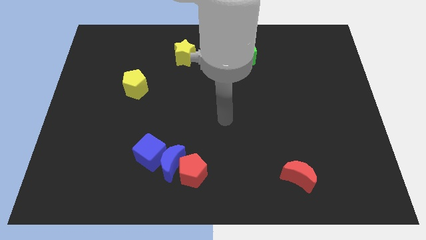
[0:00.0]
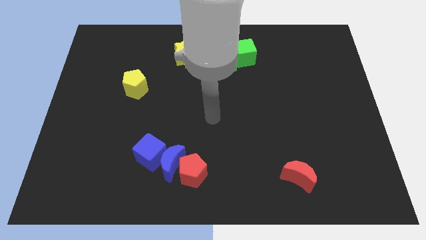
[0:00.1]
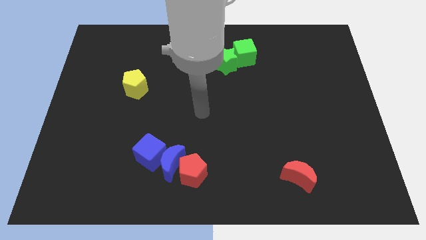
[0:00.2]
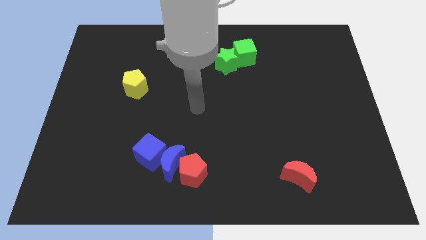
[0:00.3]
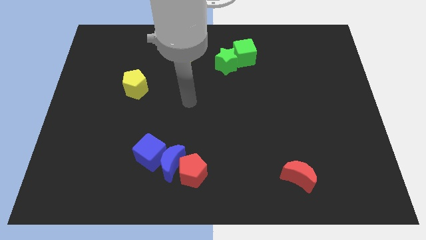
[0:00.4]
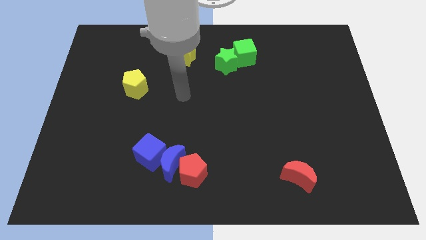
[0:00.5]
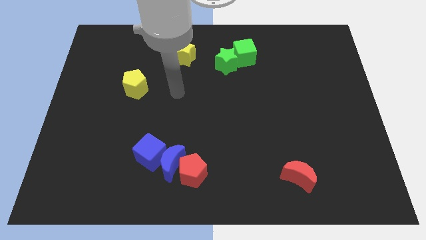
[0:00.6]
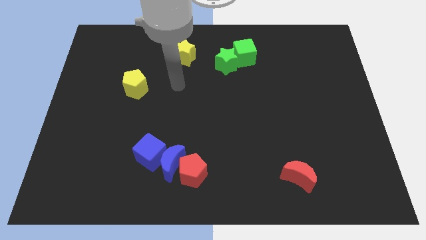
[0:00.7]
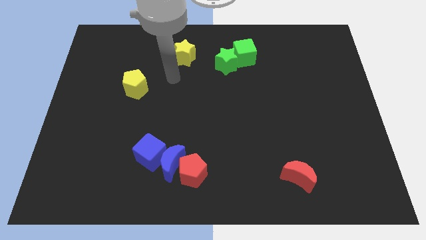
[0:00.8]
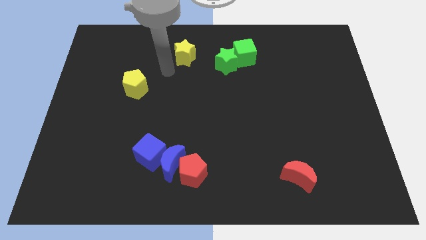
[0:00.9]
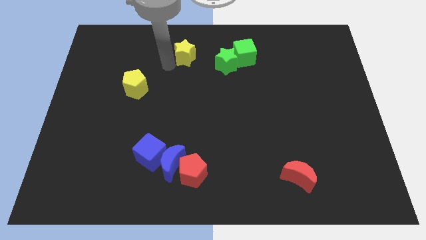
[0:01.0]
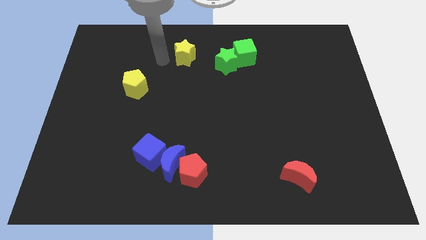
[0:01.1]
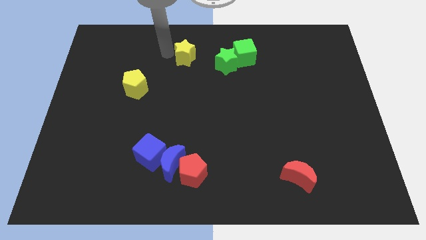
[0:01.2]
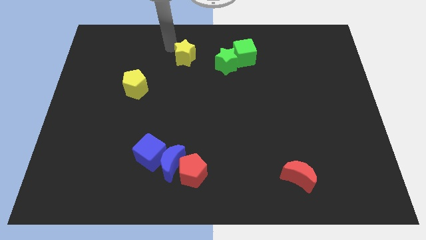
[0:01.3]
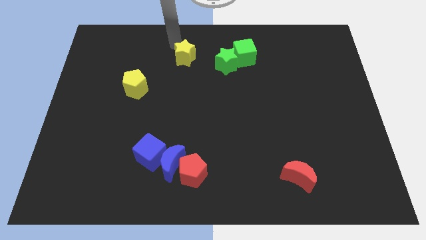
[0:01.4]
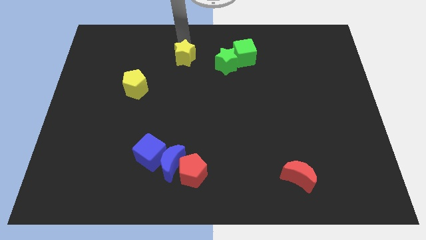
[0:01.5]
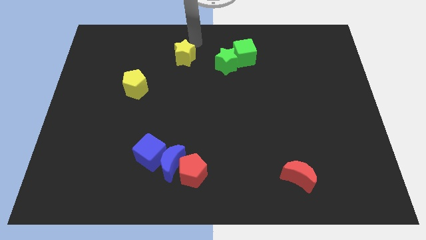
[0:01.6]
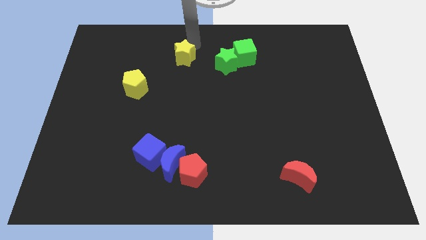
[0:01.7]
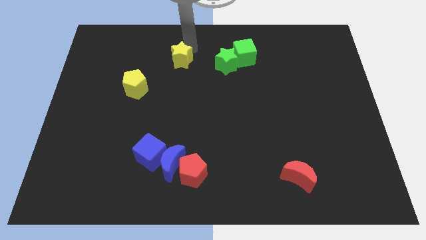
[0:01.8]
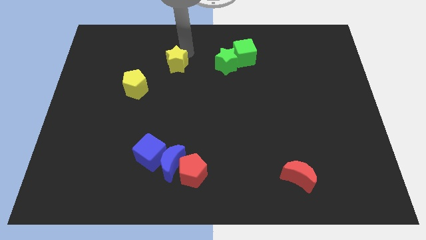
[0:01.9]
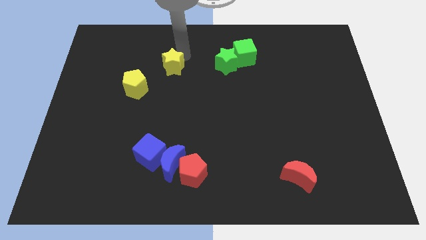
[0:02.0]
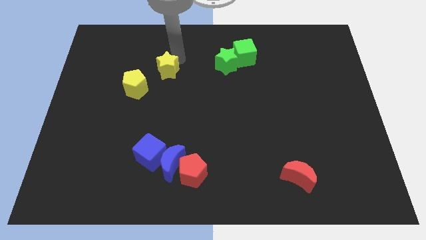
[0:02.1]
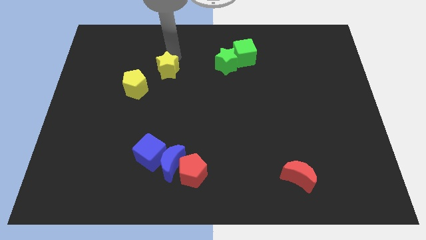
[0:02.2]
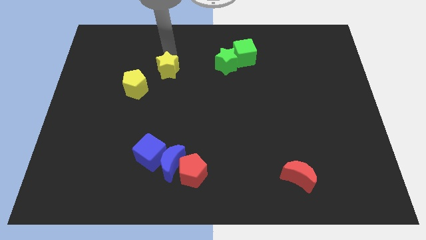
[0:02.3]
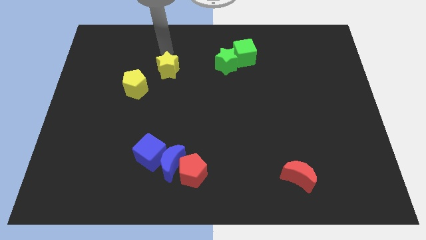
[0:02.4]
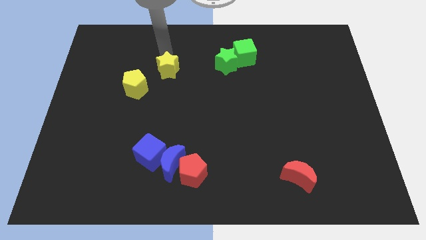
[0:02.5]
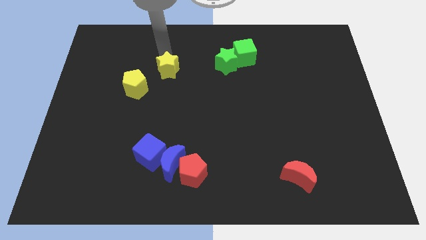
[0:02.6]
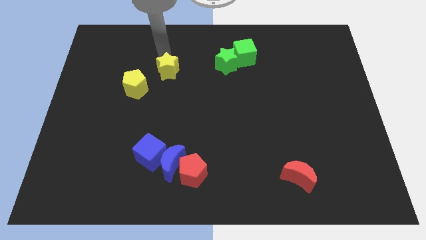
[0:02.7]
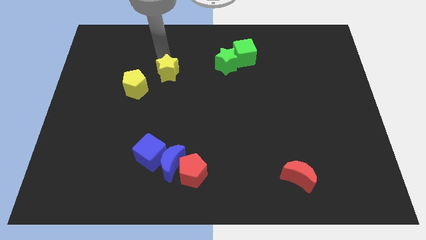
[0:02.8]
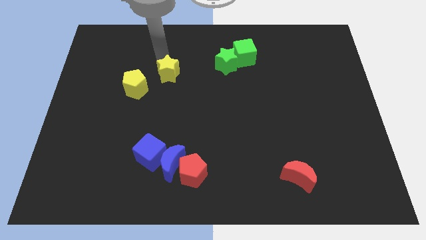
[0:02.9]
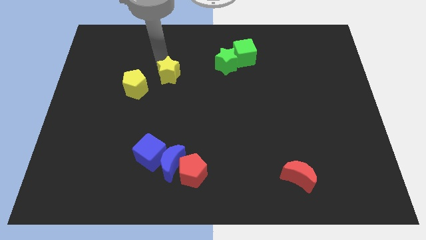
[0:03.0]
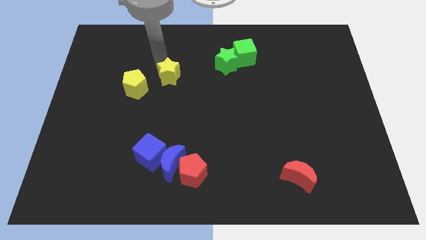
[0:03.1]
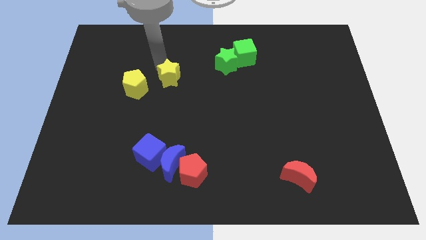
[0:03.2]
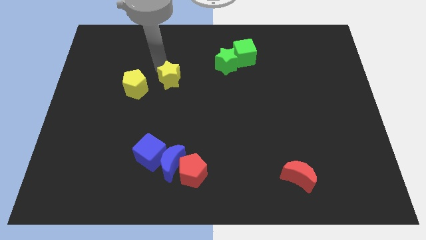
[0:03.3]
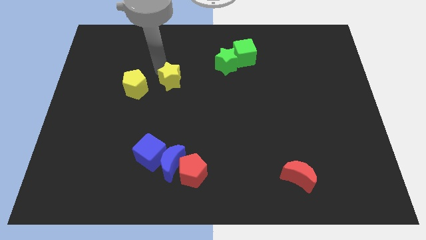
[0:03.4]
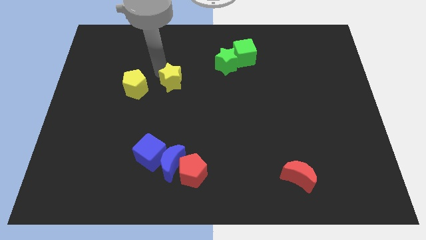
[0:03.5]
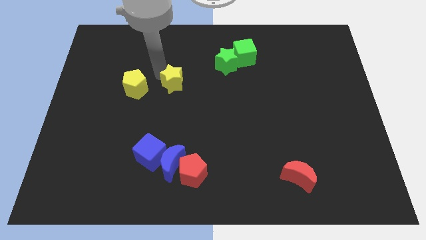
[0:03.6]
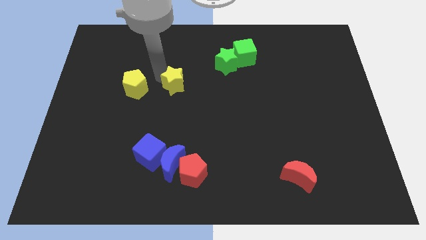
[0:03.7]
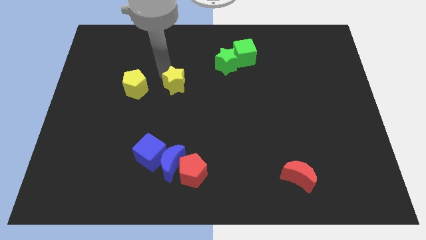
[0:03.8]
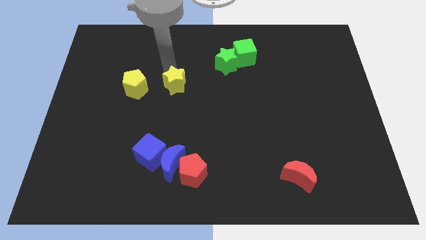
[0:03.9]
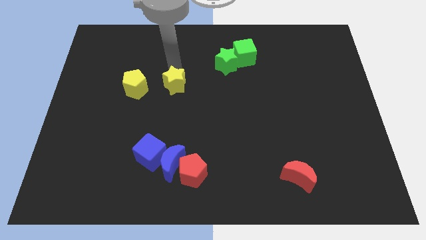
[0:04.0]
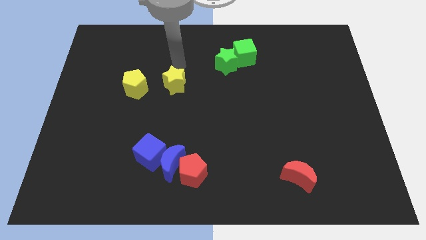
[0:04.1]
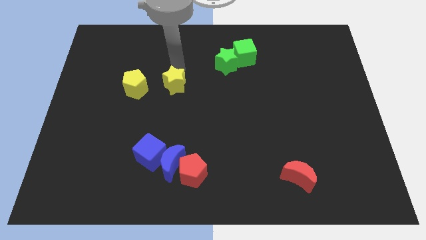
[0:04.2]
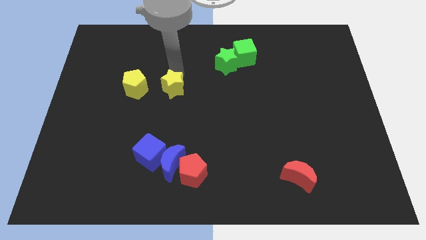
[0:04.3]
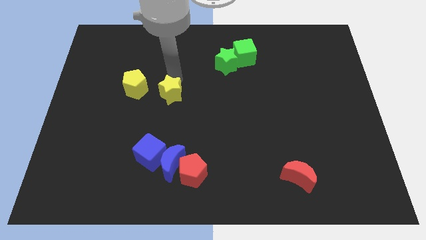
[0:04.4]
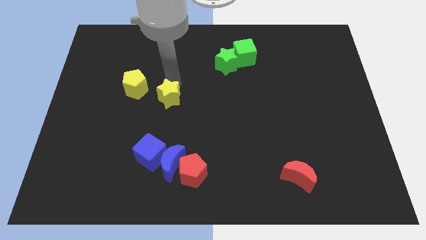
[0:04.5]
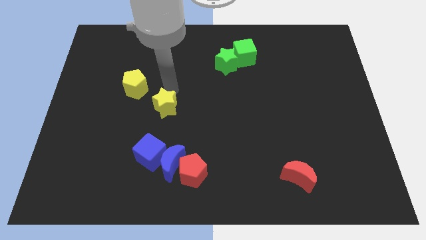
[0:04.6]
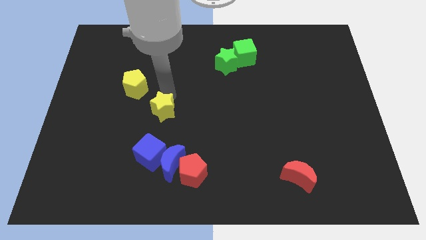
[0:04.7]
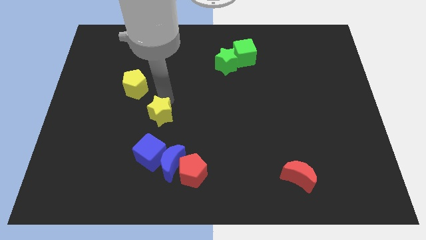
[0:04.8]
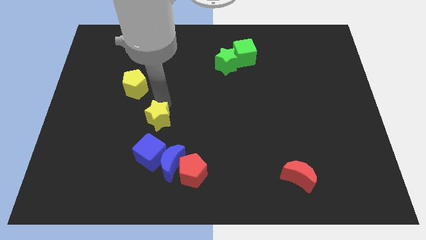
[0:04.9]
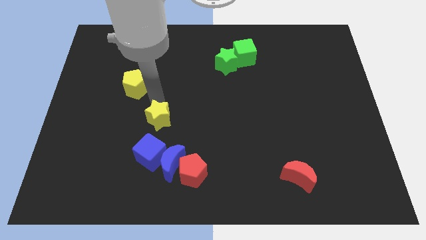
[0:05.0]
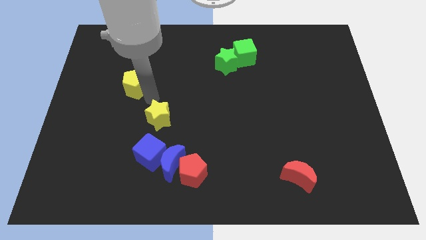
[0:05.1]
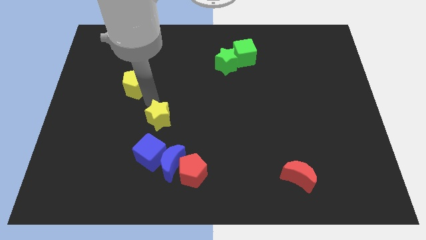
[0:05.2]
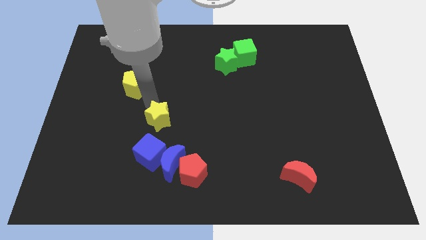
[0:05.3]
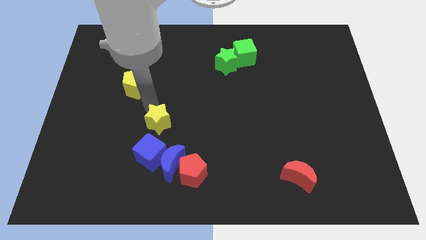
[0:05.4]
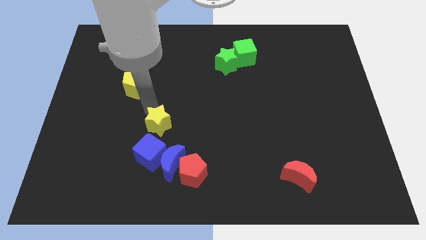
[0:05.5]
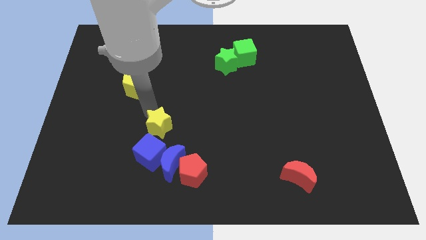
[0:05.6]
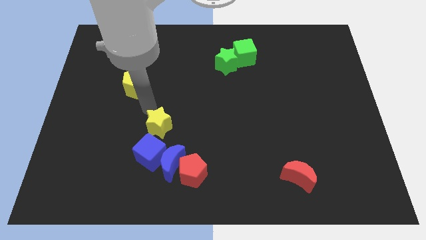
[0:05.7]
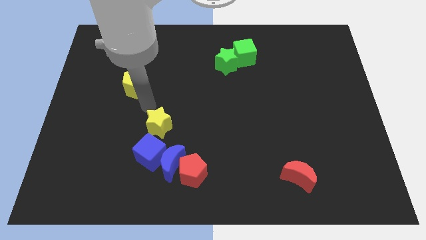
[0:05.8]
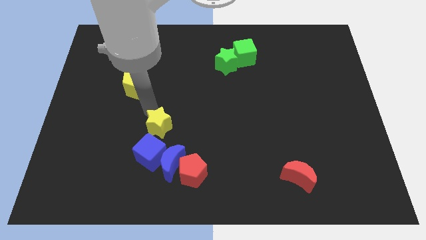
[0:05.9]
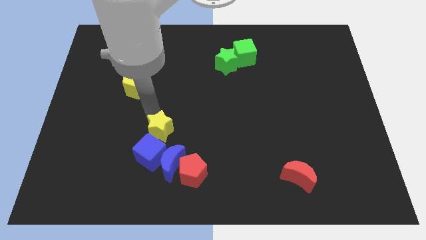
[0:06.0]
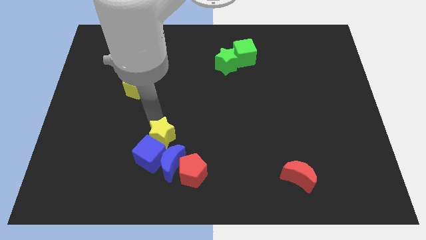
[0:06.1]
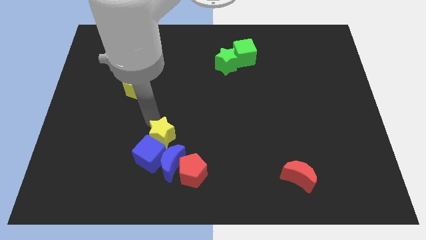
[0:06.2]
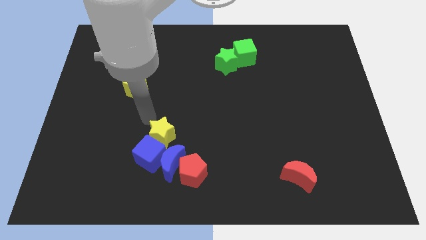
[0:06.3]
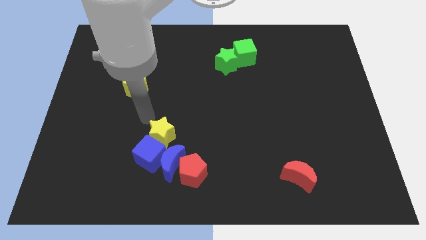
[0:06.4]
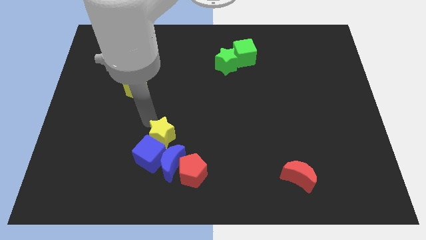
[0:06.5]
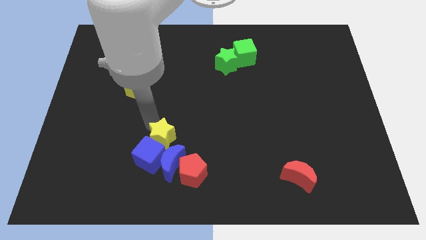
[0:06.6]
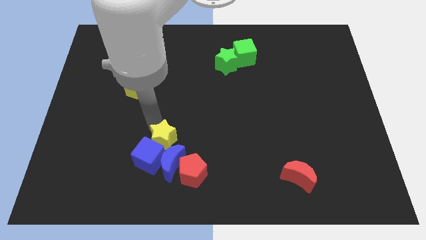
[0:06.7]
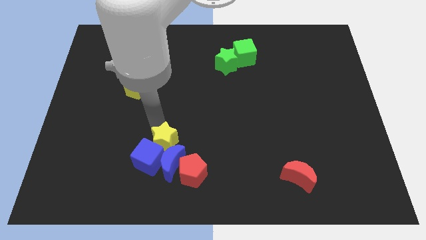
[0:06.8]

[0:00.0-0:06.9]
put the yellow star close to the blue moon

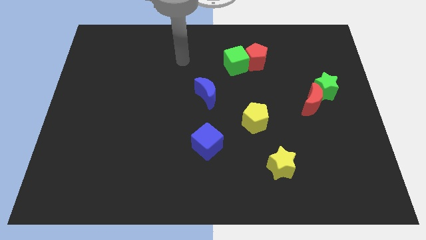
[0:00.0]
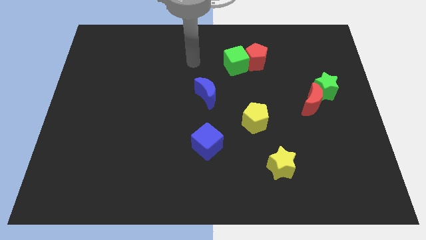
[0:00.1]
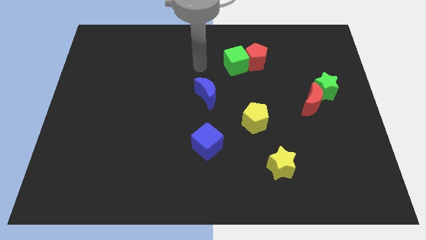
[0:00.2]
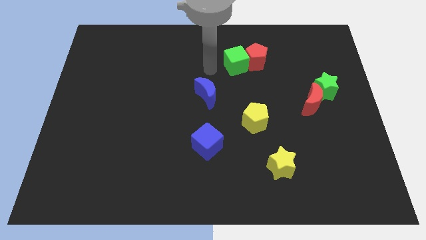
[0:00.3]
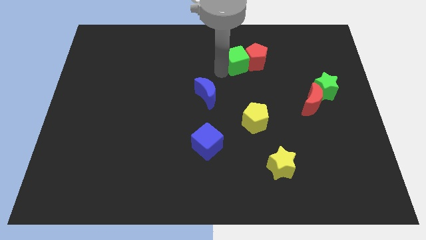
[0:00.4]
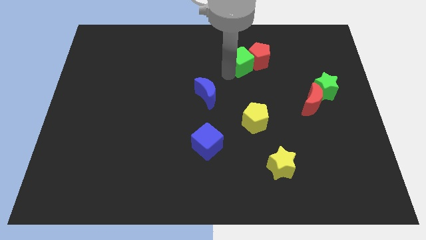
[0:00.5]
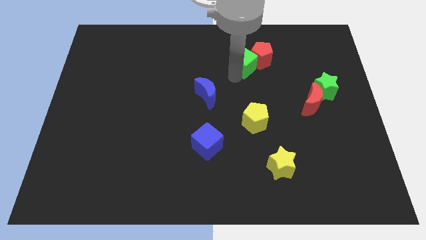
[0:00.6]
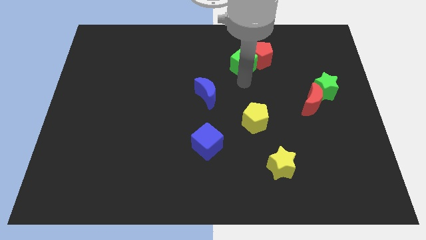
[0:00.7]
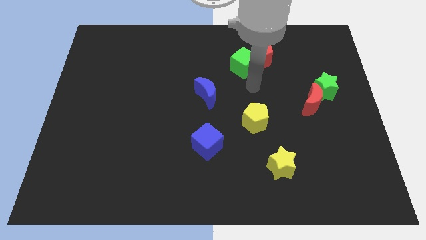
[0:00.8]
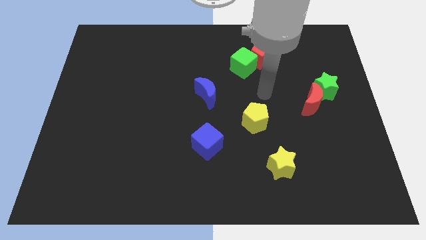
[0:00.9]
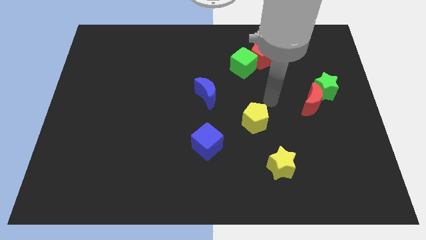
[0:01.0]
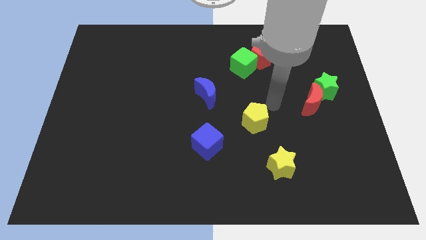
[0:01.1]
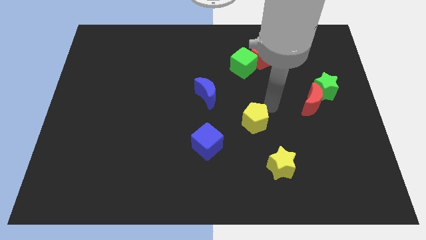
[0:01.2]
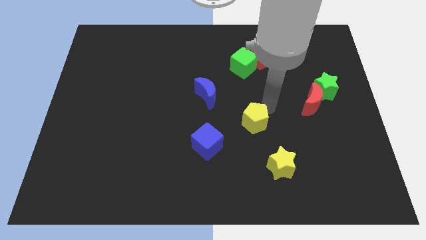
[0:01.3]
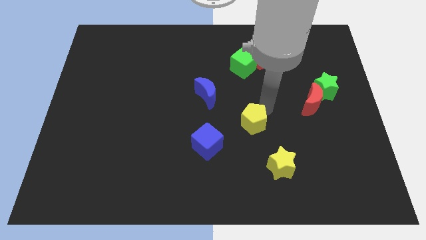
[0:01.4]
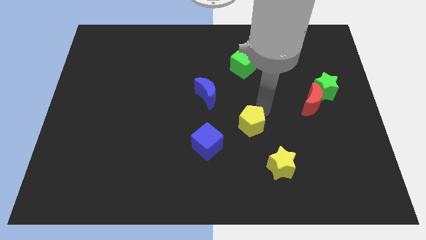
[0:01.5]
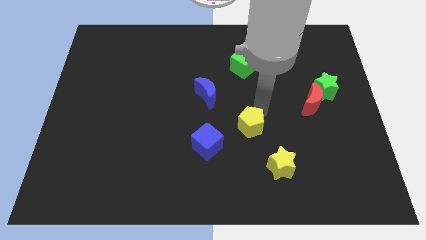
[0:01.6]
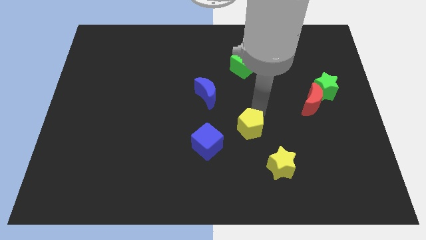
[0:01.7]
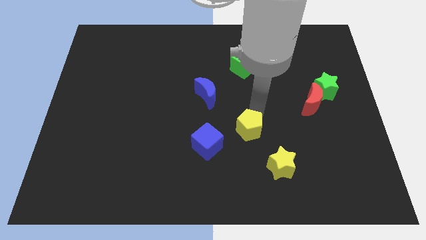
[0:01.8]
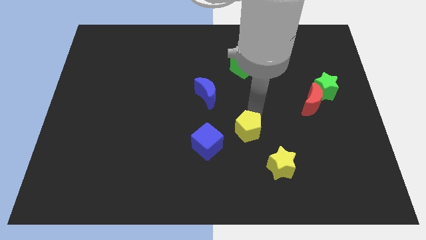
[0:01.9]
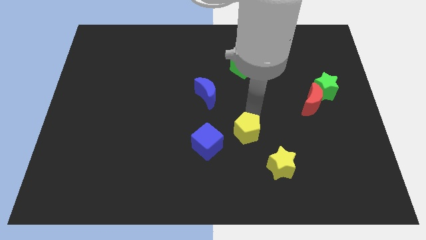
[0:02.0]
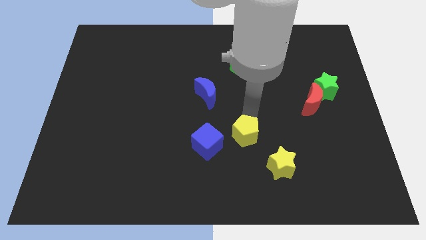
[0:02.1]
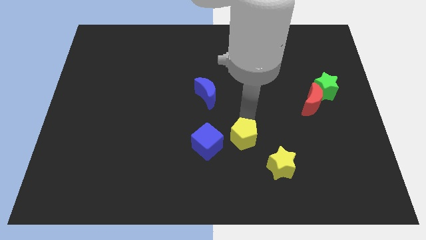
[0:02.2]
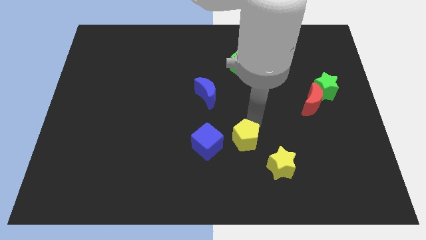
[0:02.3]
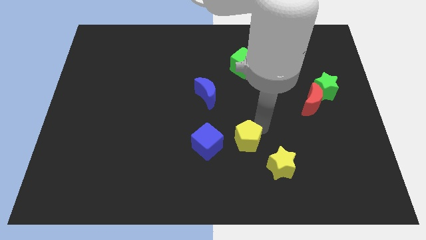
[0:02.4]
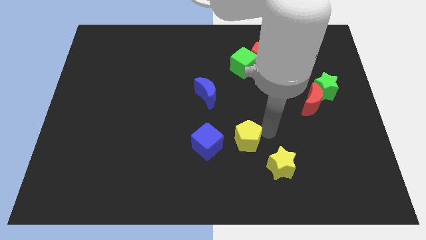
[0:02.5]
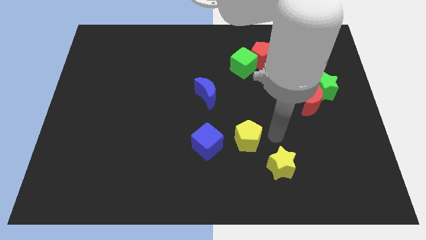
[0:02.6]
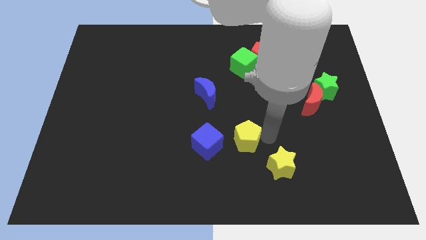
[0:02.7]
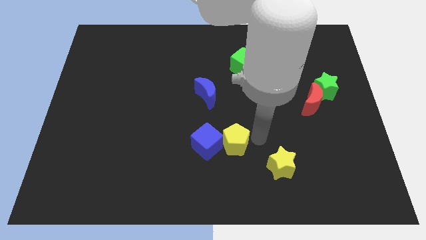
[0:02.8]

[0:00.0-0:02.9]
push the yellow pentagon to the blue cube
